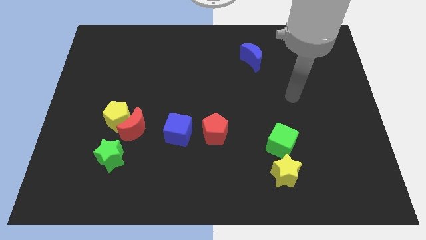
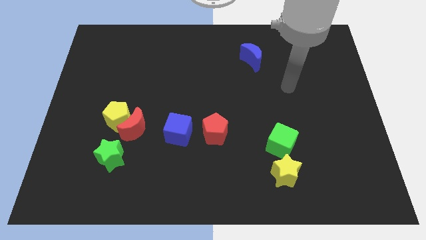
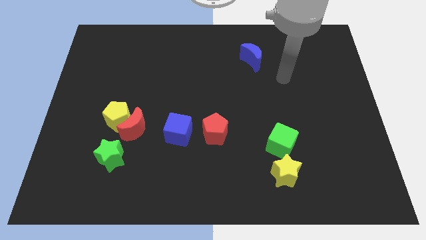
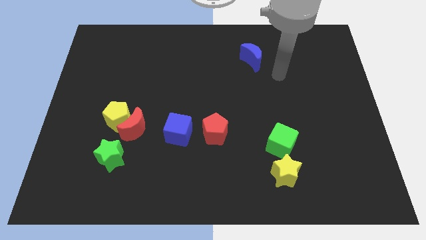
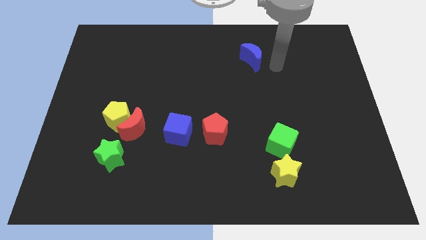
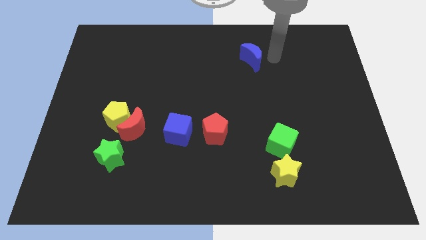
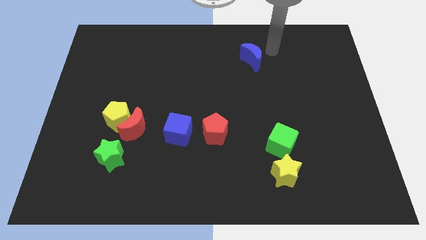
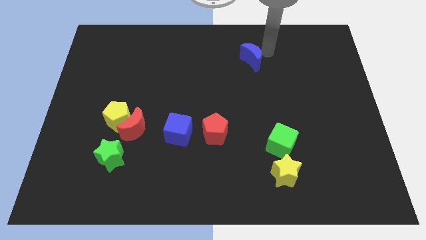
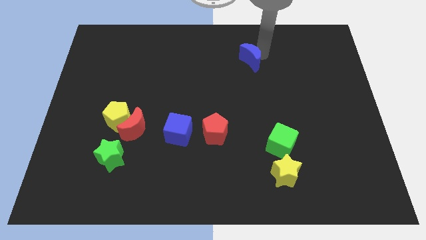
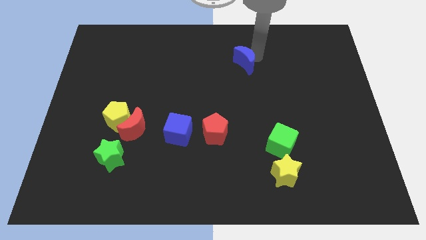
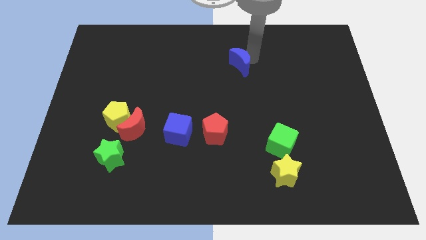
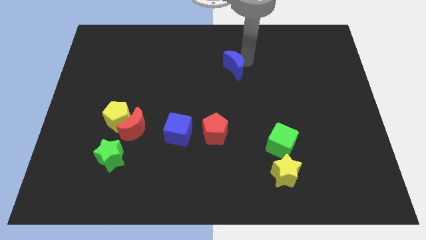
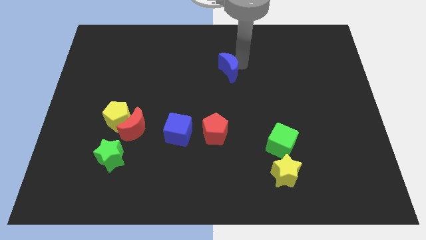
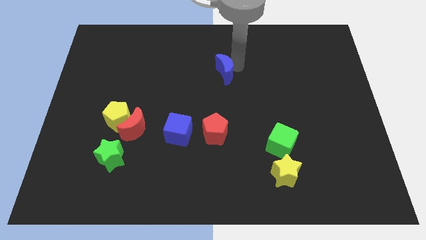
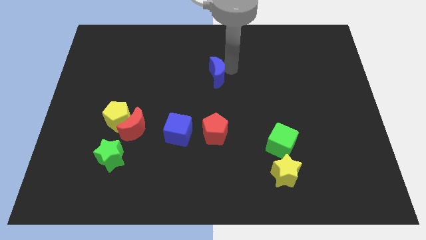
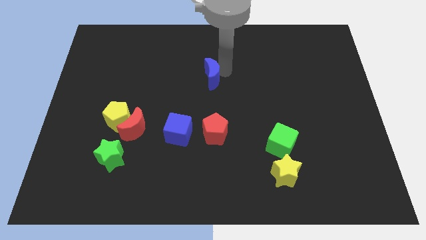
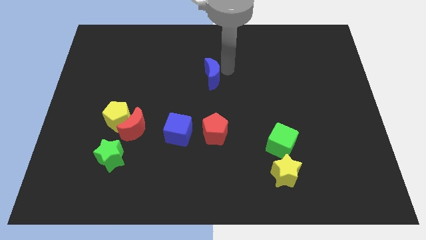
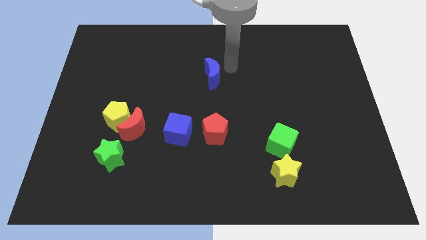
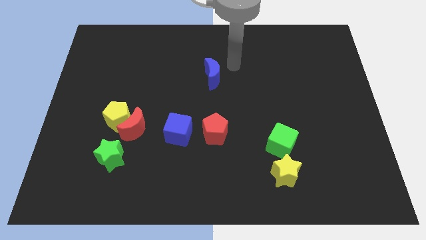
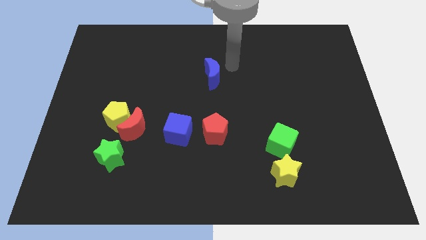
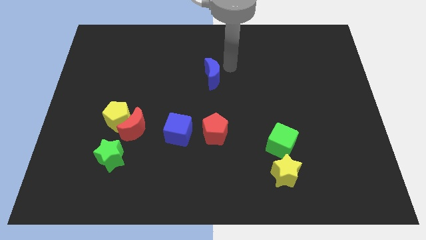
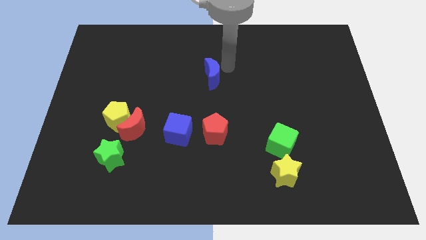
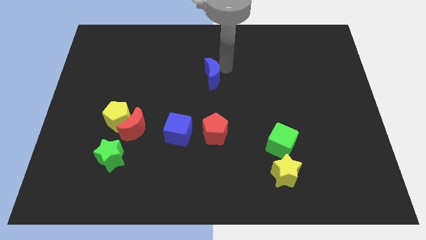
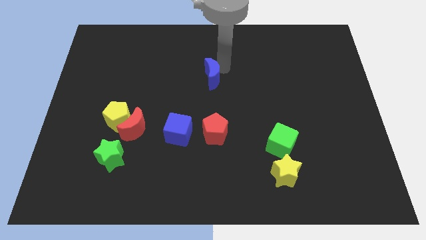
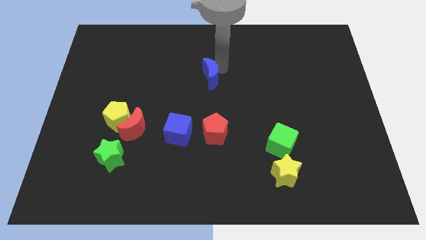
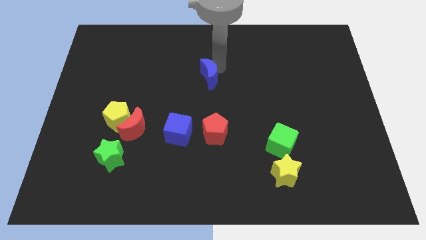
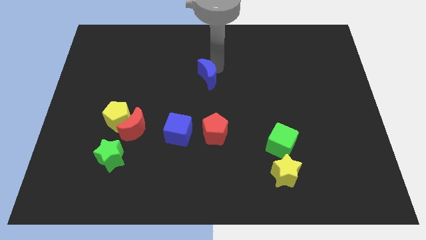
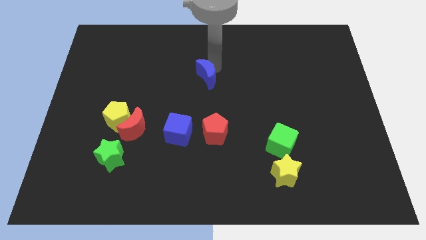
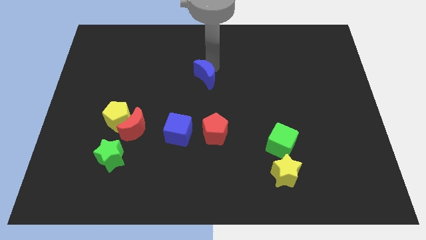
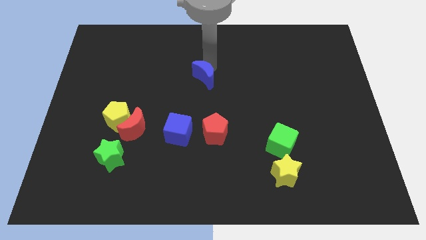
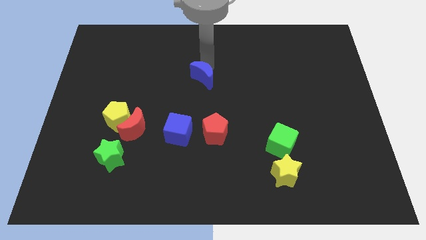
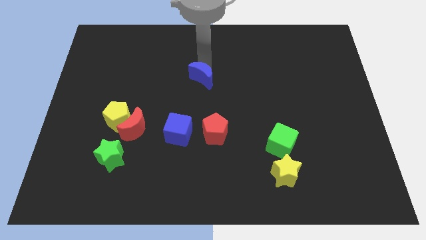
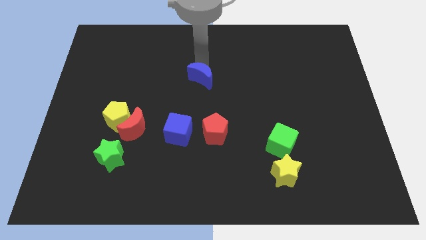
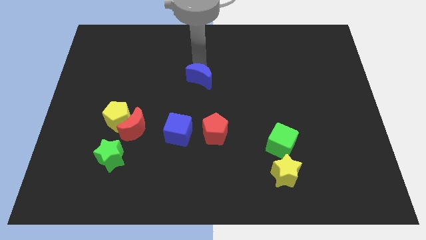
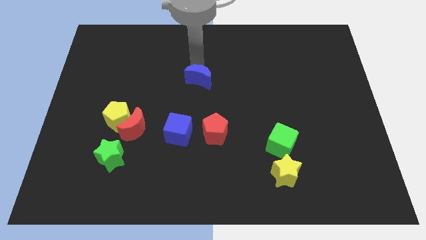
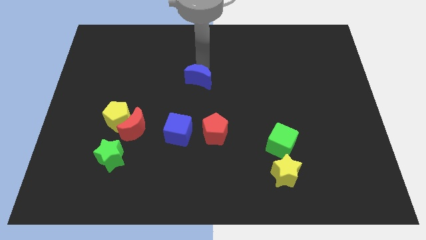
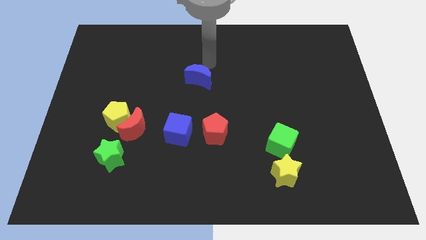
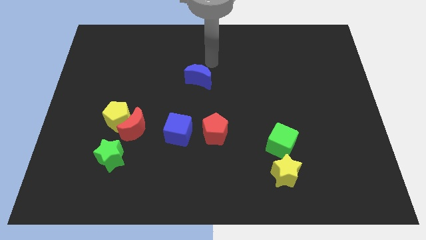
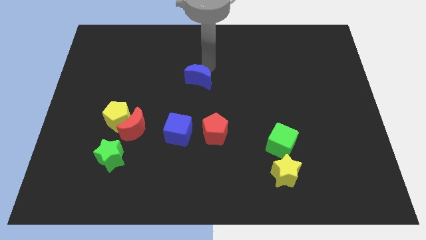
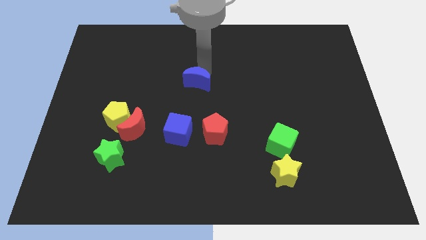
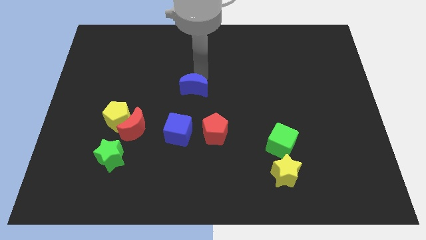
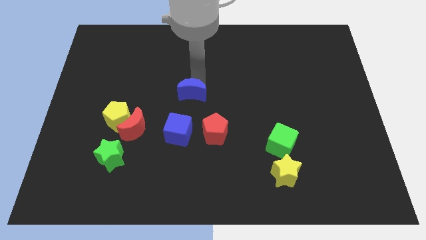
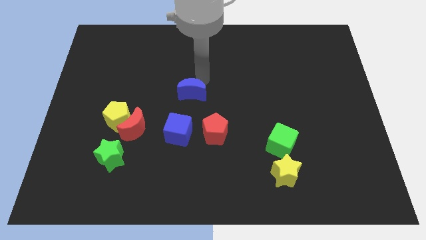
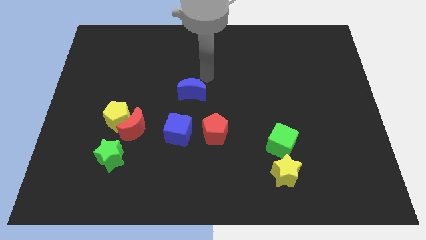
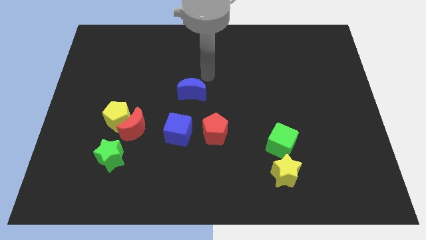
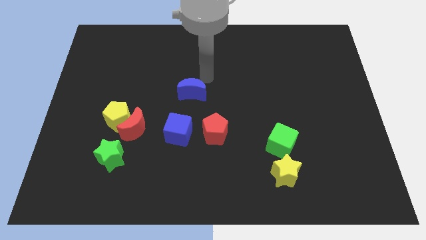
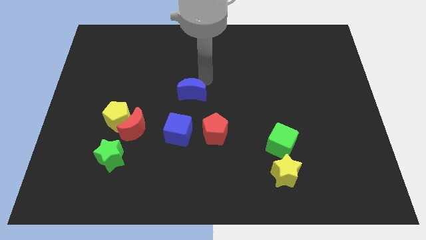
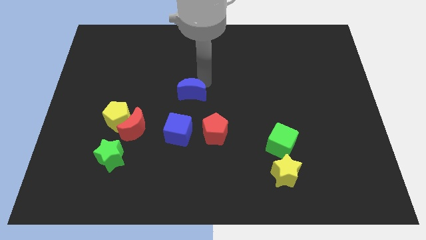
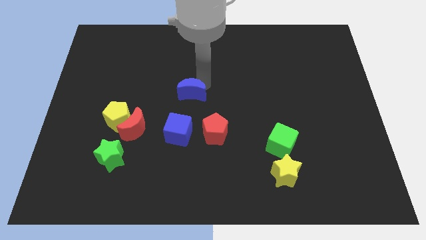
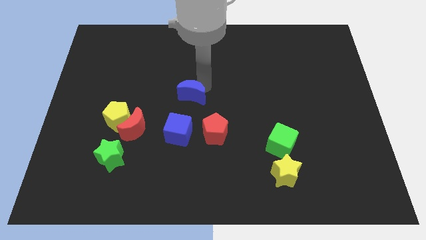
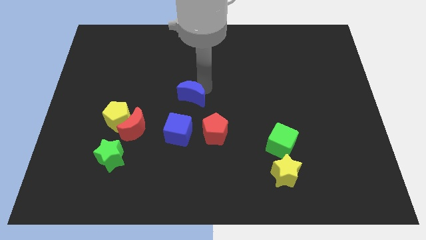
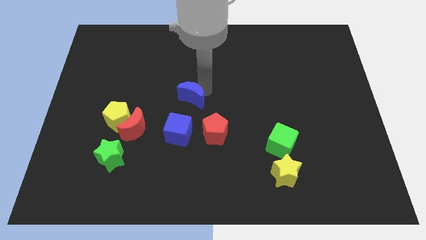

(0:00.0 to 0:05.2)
push the blue moon diagonally downwards and left

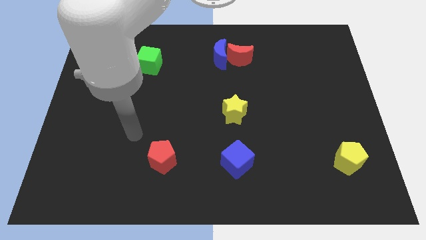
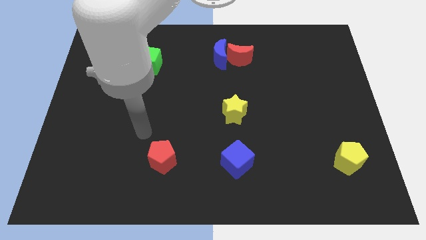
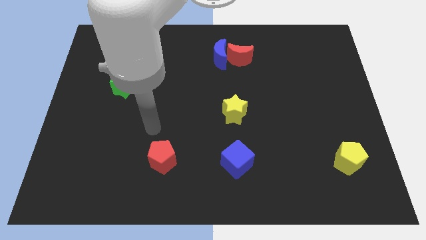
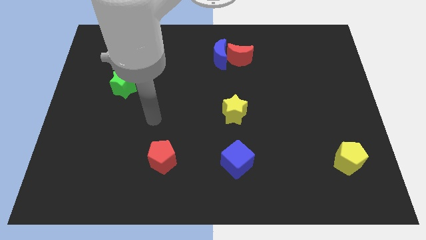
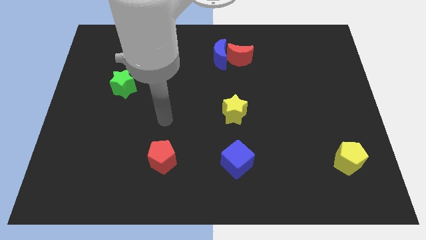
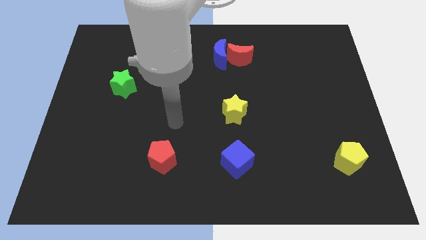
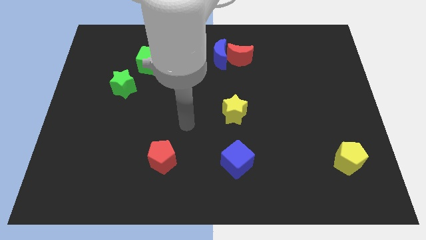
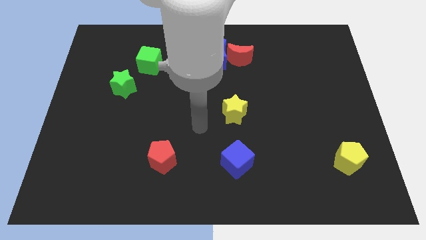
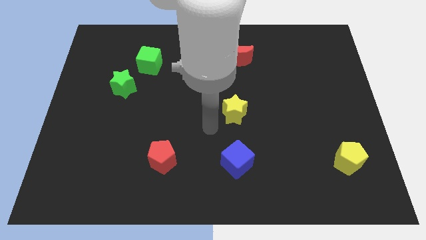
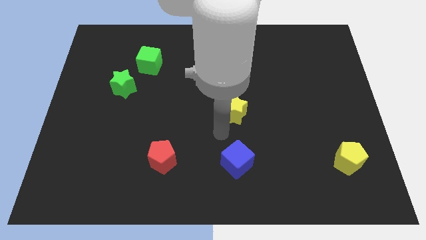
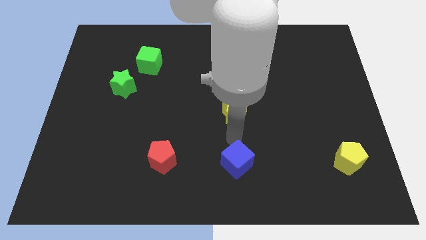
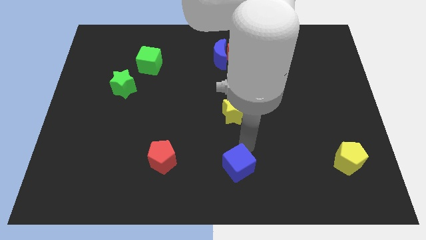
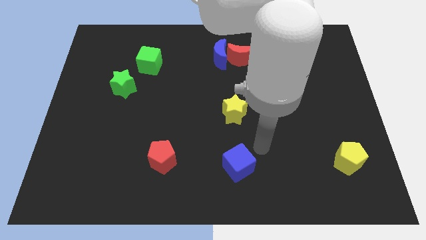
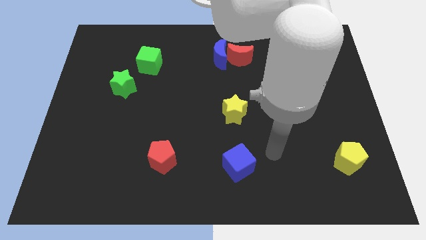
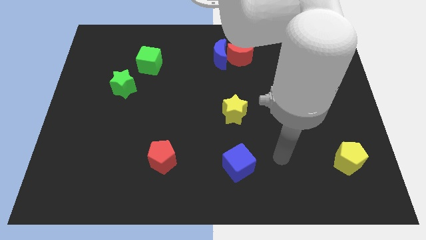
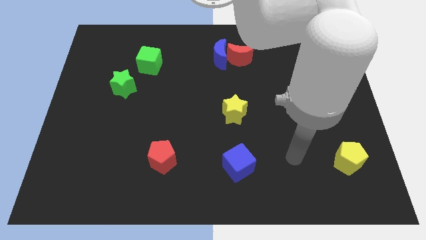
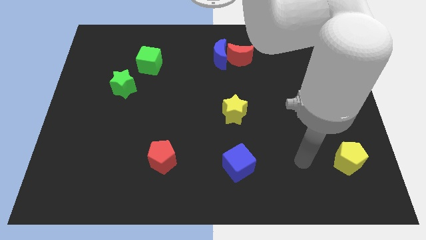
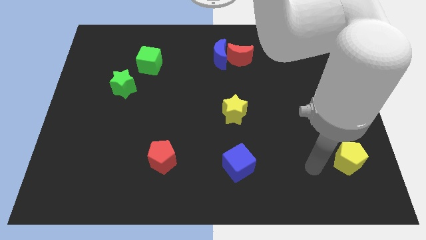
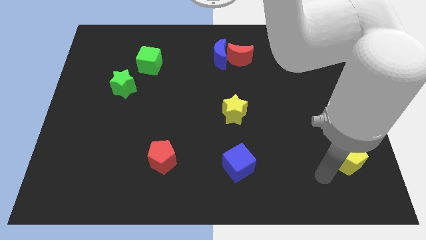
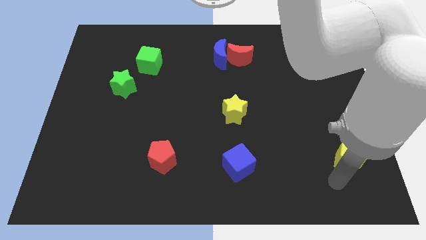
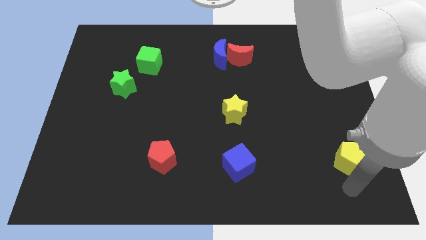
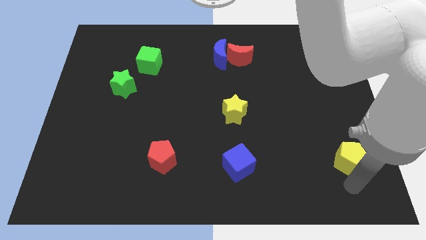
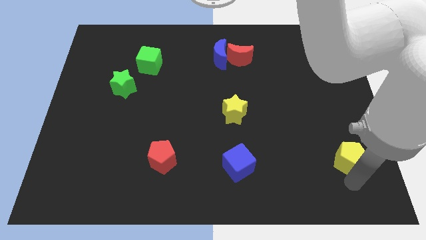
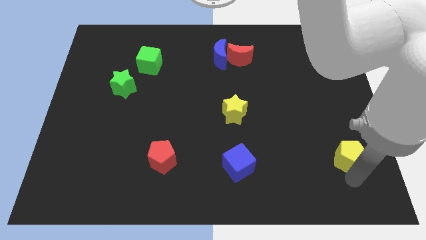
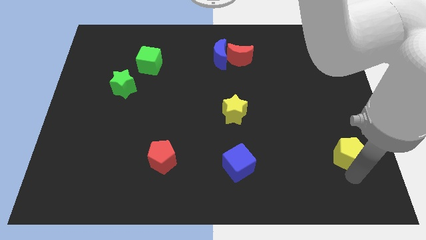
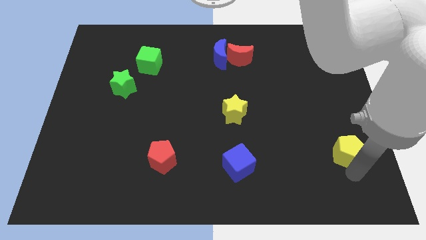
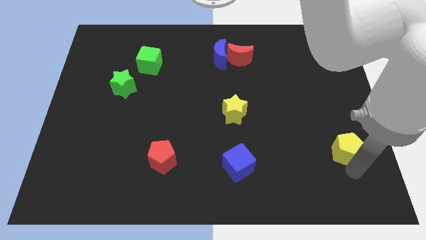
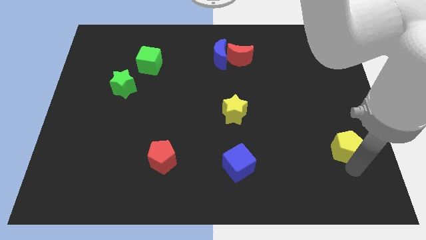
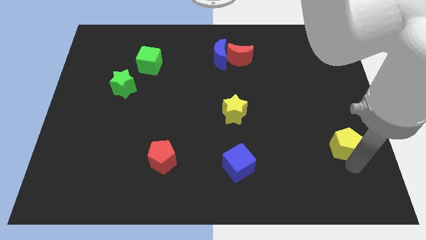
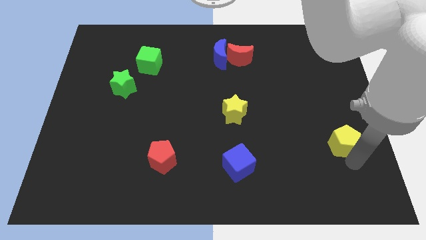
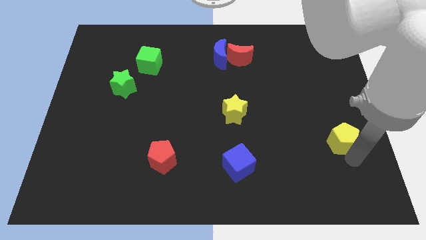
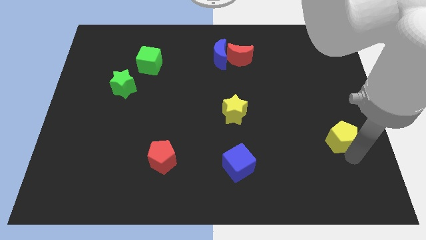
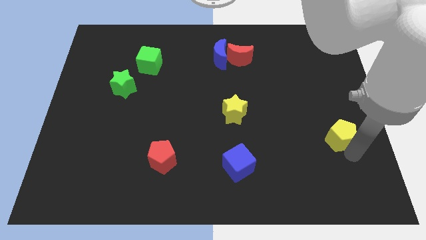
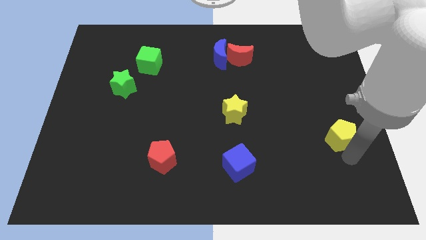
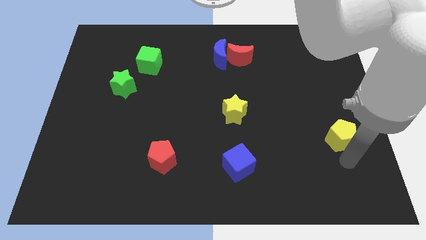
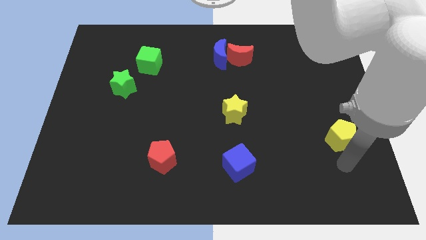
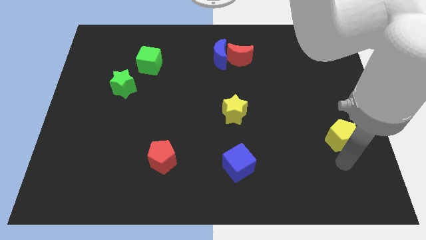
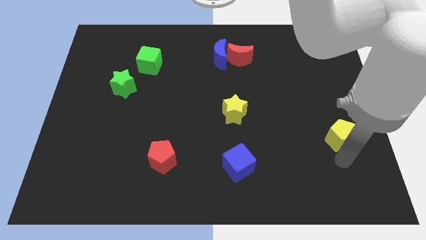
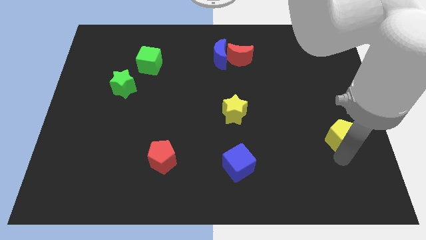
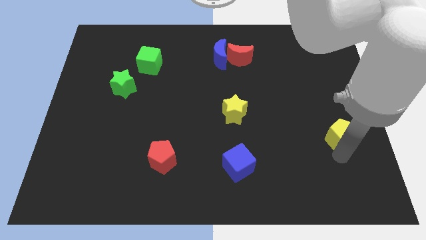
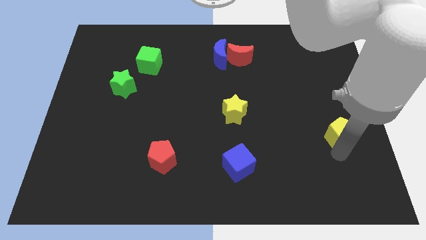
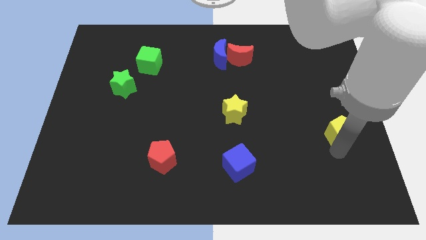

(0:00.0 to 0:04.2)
move the yellow pentagon up slightly
